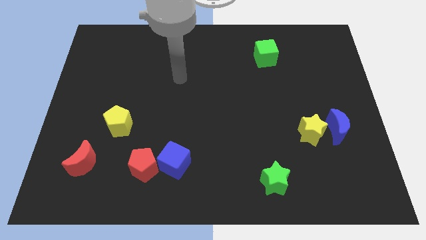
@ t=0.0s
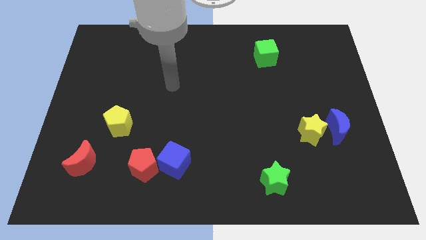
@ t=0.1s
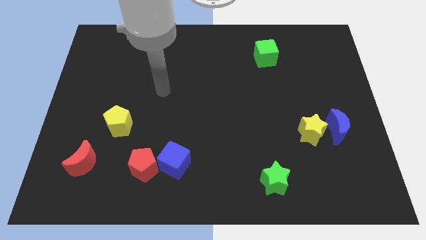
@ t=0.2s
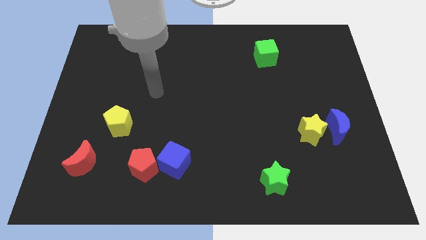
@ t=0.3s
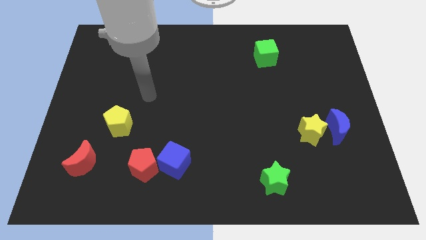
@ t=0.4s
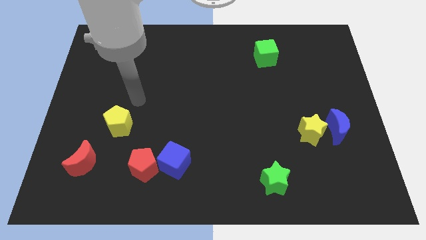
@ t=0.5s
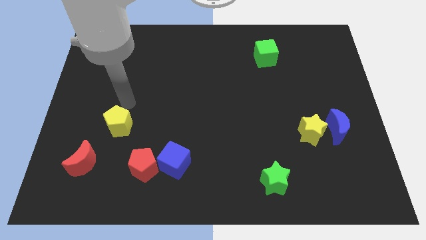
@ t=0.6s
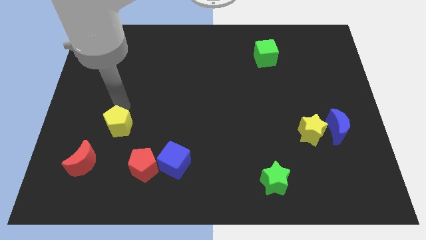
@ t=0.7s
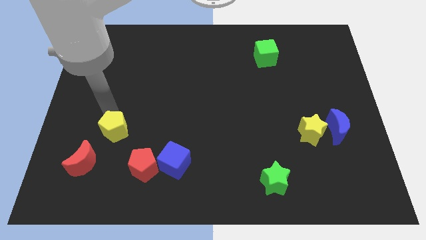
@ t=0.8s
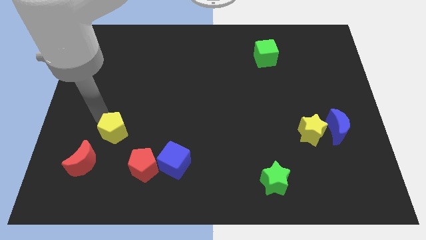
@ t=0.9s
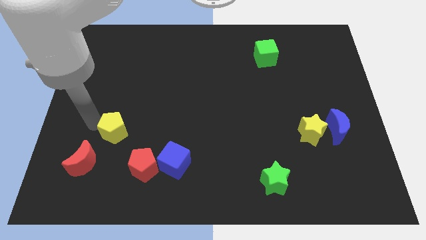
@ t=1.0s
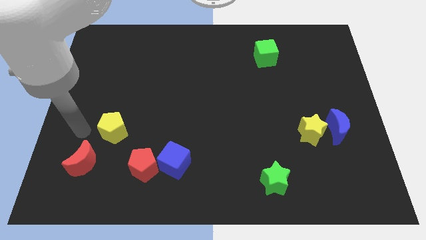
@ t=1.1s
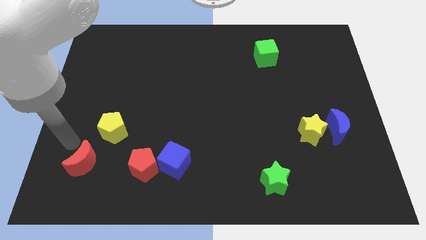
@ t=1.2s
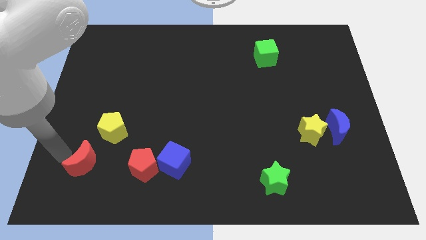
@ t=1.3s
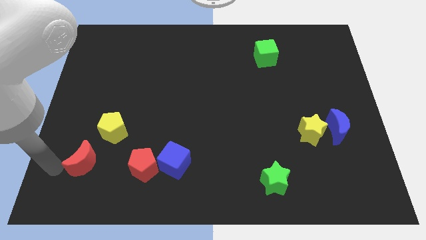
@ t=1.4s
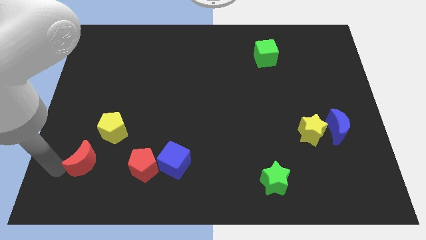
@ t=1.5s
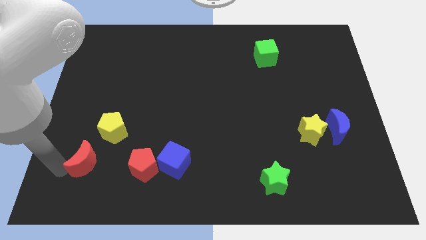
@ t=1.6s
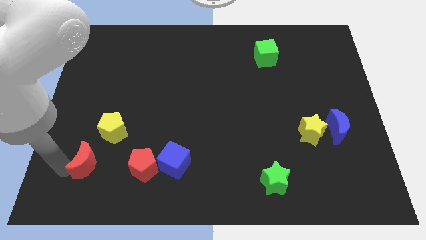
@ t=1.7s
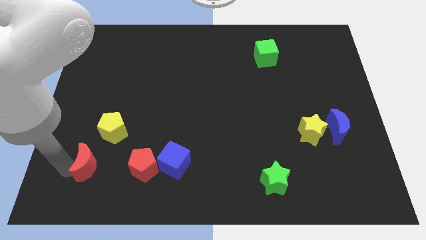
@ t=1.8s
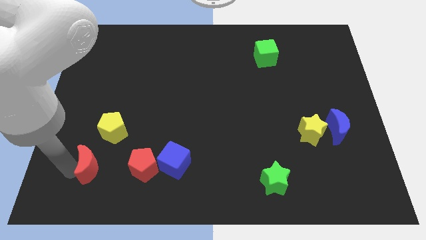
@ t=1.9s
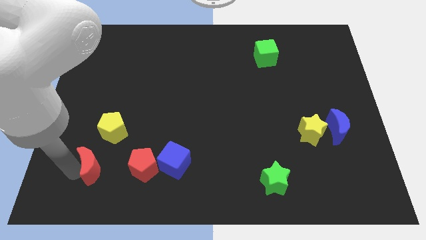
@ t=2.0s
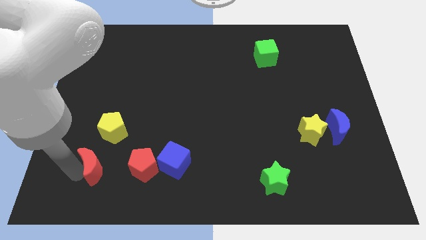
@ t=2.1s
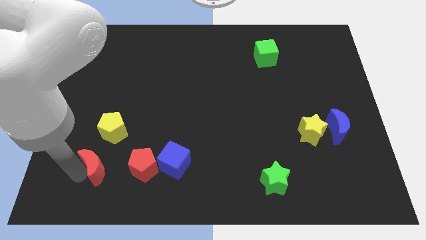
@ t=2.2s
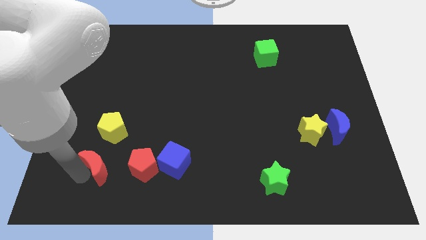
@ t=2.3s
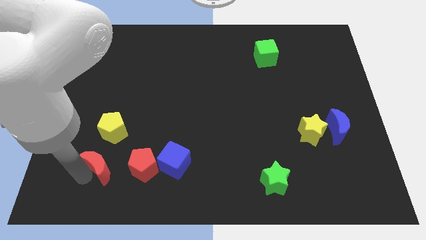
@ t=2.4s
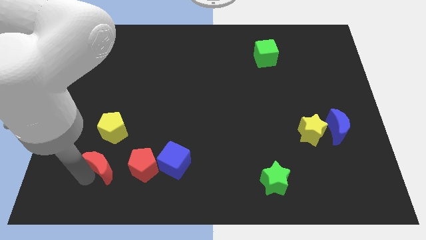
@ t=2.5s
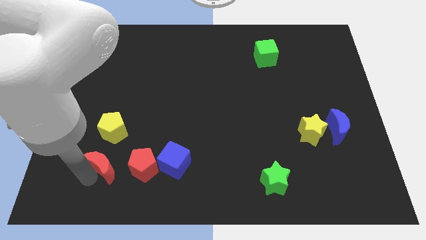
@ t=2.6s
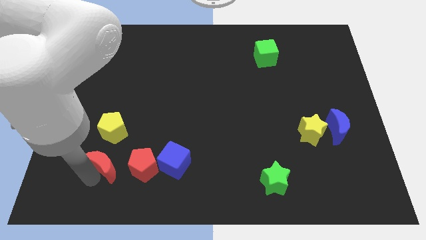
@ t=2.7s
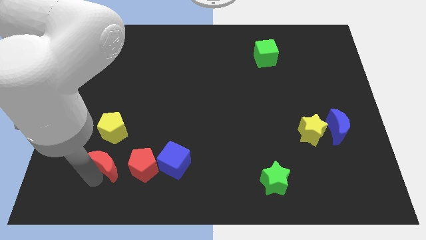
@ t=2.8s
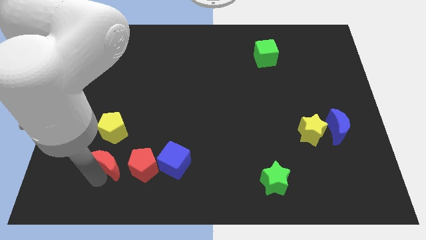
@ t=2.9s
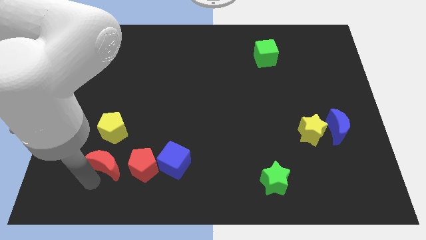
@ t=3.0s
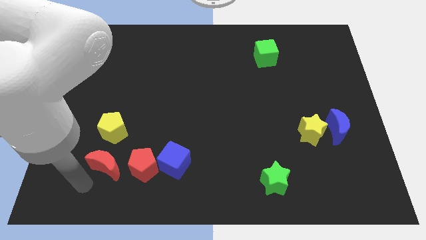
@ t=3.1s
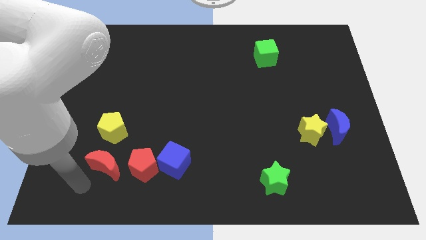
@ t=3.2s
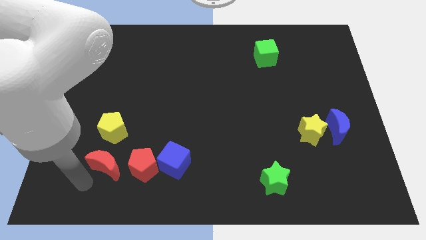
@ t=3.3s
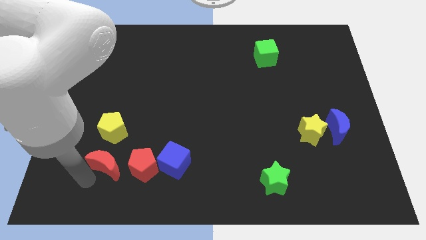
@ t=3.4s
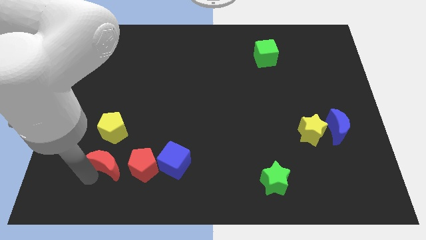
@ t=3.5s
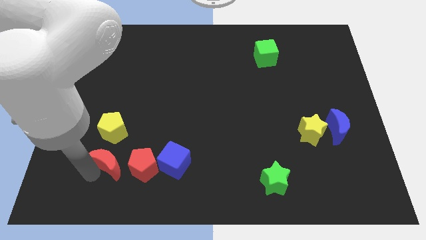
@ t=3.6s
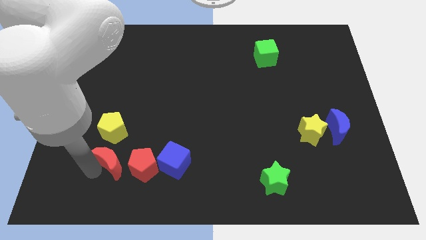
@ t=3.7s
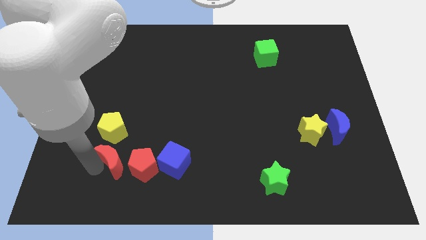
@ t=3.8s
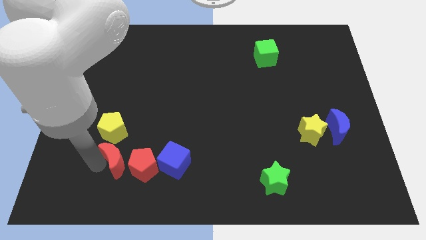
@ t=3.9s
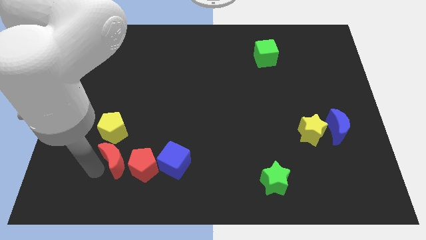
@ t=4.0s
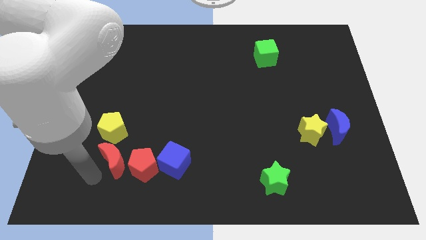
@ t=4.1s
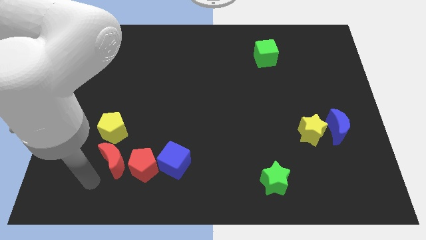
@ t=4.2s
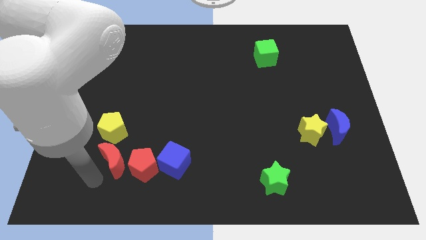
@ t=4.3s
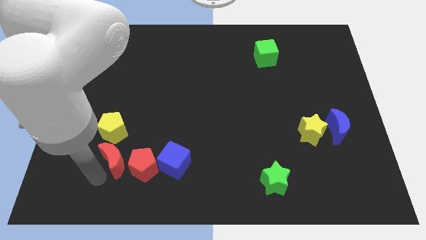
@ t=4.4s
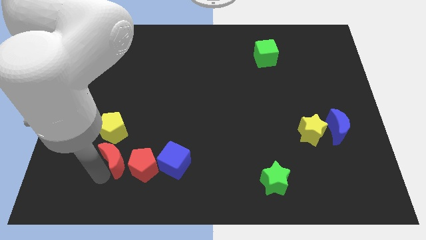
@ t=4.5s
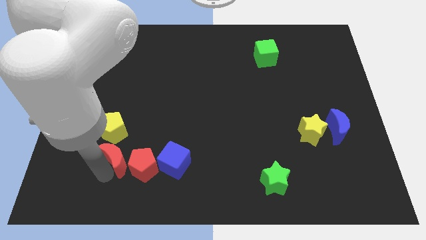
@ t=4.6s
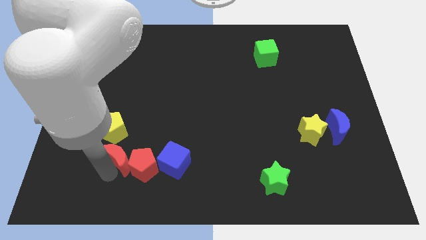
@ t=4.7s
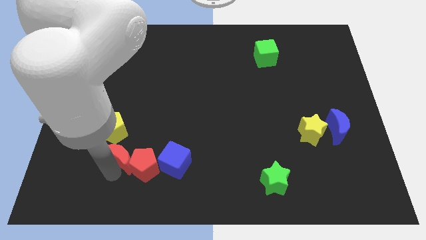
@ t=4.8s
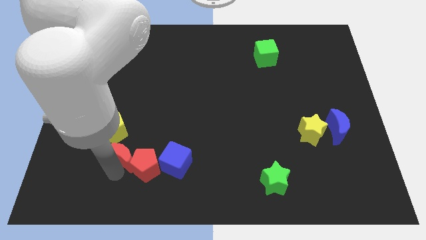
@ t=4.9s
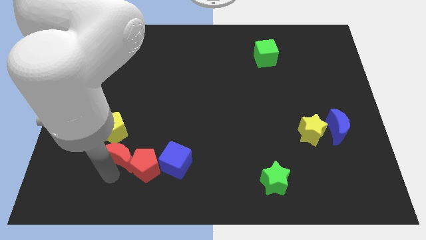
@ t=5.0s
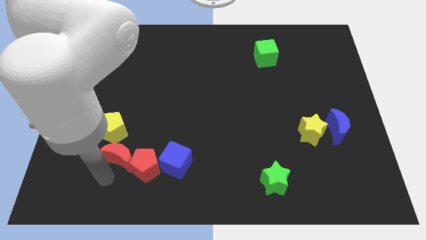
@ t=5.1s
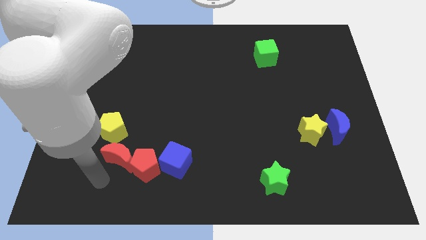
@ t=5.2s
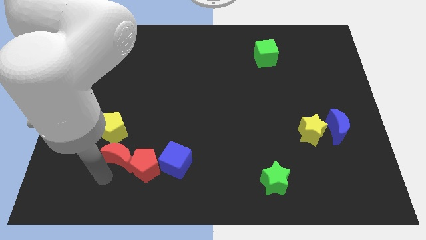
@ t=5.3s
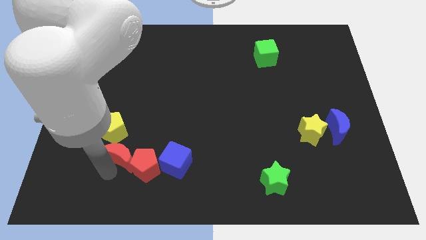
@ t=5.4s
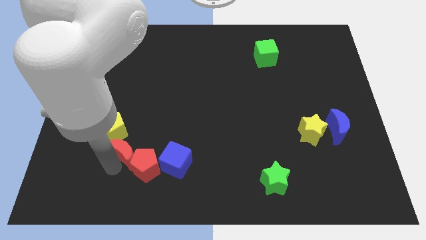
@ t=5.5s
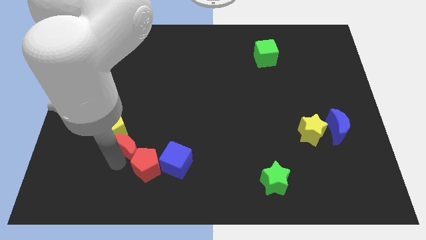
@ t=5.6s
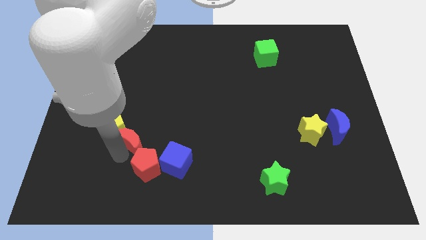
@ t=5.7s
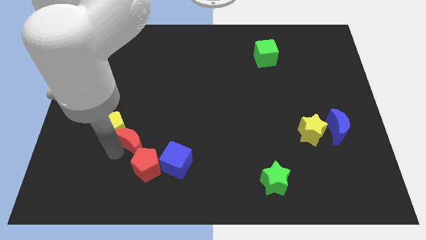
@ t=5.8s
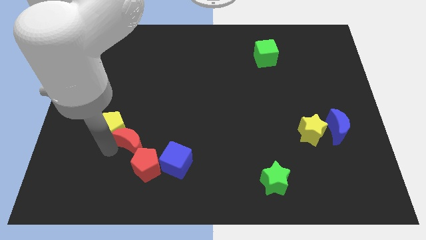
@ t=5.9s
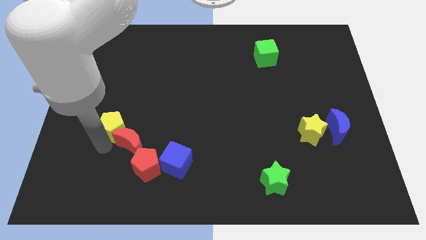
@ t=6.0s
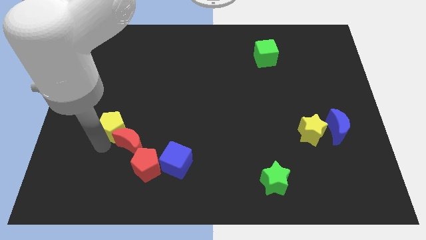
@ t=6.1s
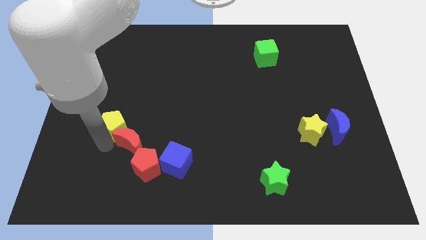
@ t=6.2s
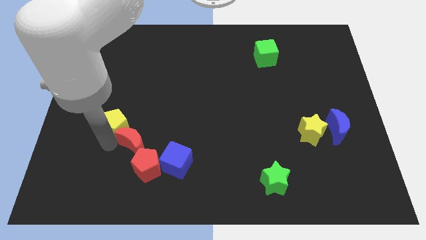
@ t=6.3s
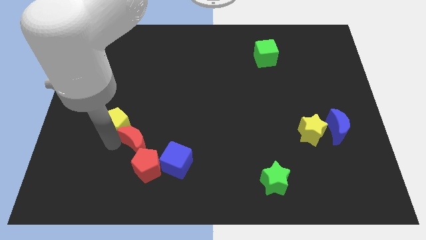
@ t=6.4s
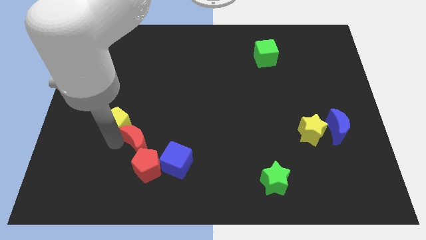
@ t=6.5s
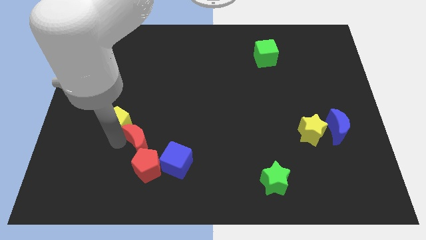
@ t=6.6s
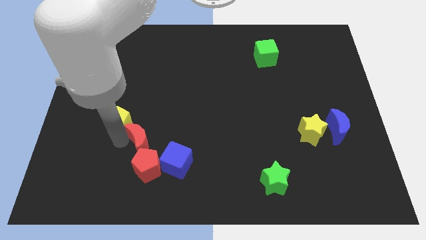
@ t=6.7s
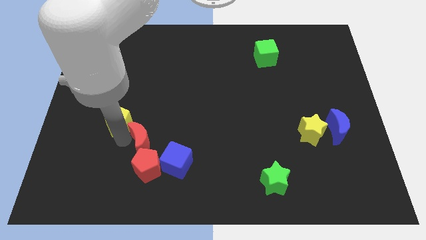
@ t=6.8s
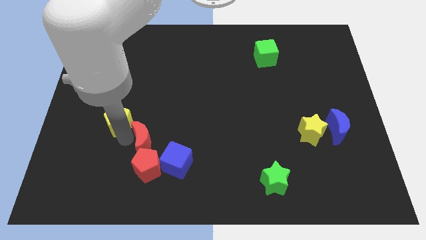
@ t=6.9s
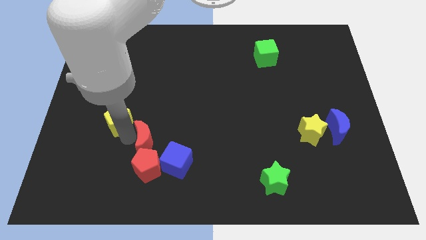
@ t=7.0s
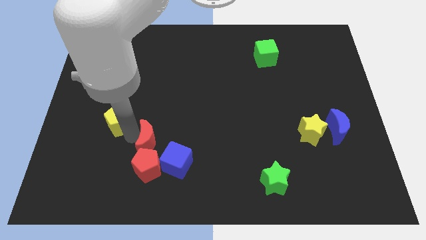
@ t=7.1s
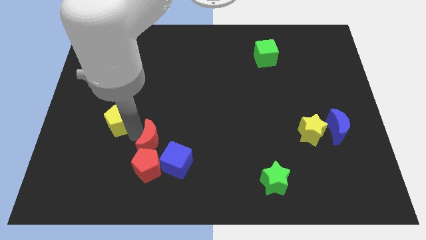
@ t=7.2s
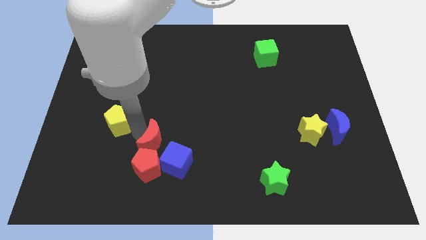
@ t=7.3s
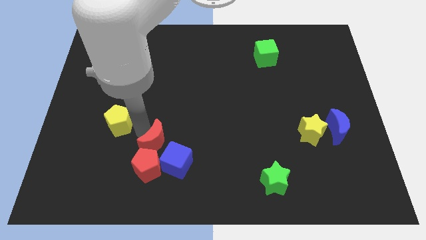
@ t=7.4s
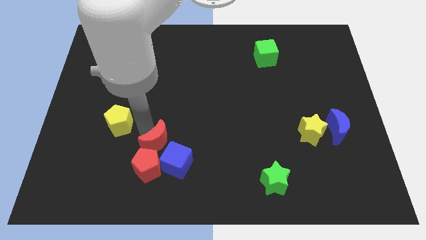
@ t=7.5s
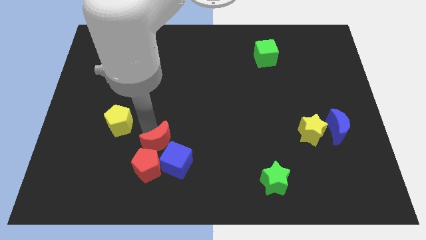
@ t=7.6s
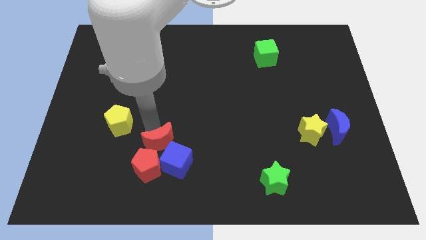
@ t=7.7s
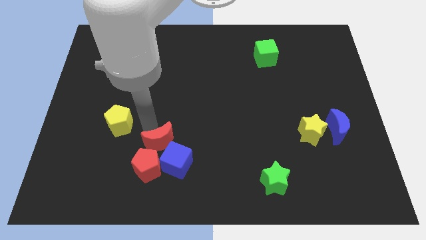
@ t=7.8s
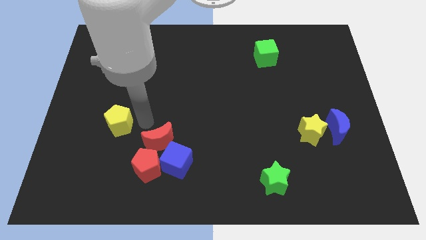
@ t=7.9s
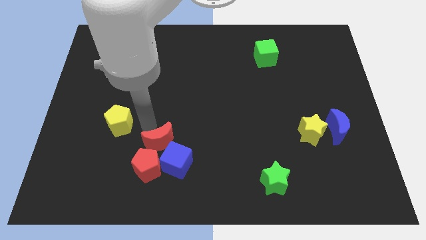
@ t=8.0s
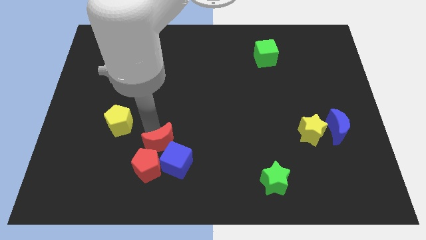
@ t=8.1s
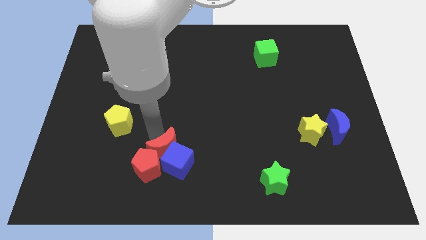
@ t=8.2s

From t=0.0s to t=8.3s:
slide the red moon close to the blue cube
